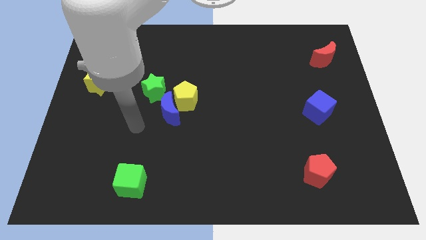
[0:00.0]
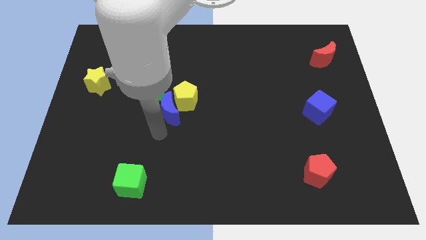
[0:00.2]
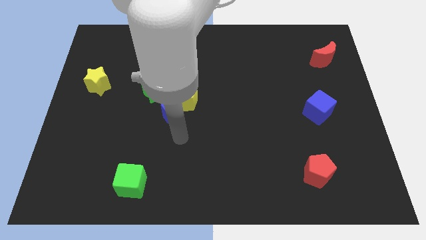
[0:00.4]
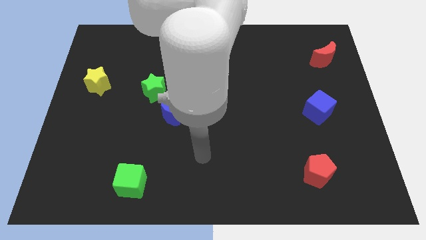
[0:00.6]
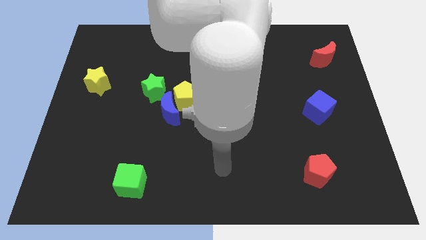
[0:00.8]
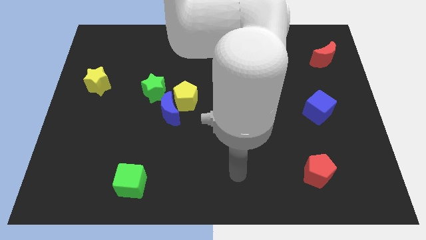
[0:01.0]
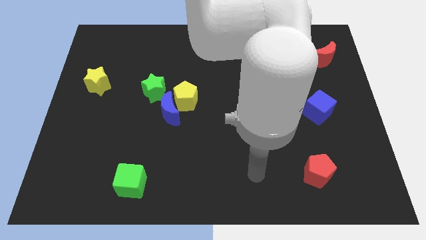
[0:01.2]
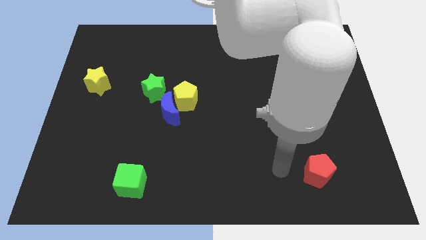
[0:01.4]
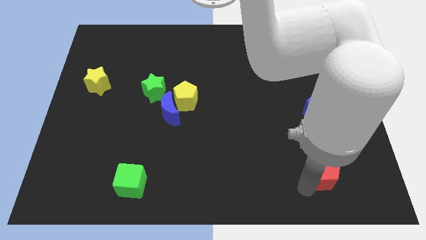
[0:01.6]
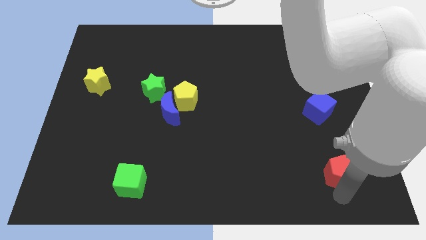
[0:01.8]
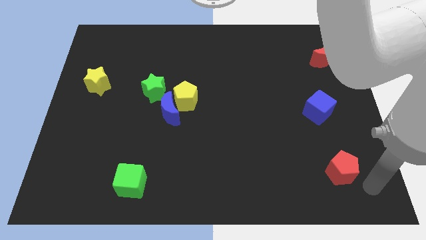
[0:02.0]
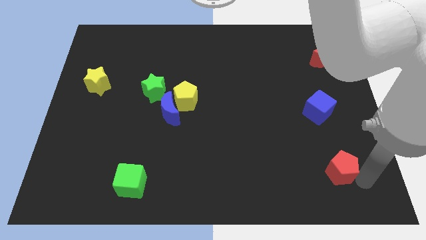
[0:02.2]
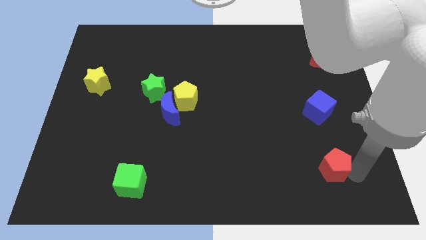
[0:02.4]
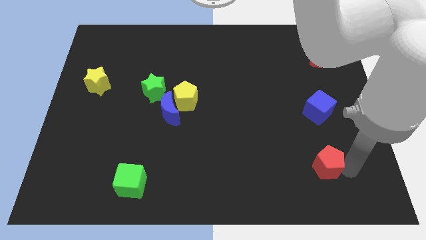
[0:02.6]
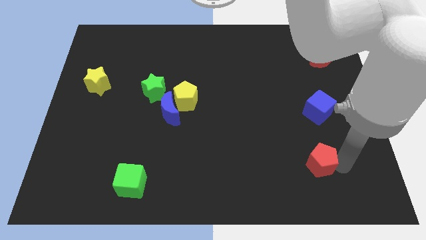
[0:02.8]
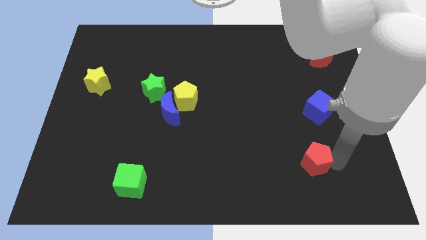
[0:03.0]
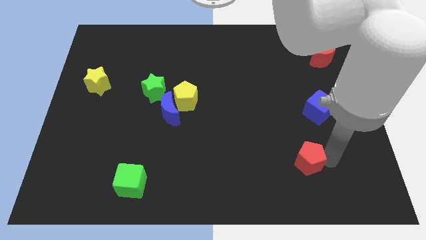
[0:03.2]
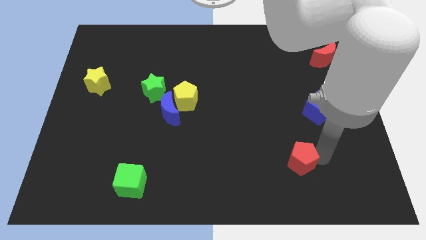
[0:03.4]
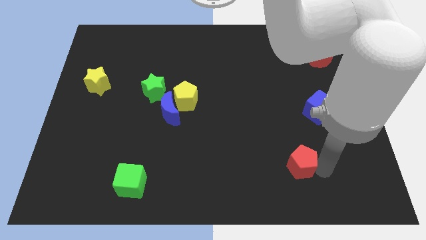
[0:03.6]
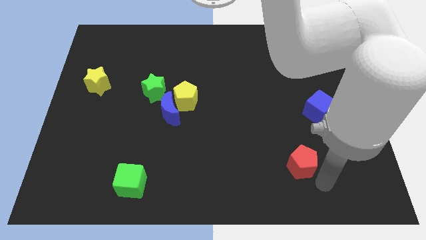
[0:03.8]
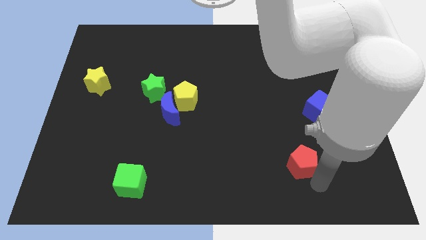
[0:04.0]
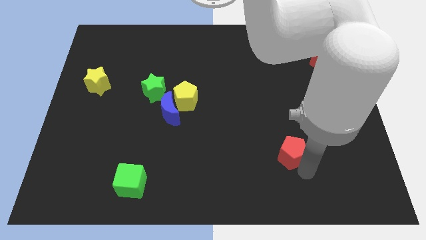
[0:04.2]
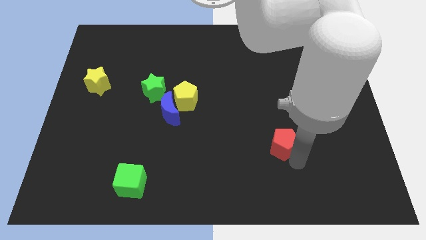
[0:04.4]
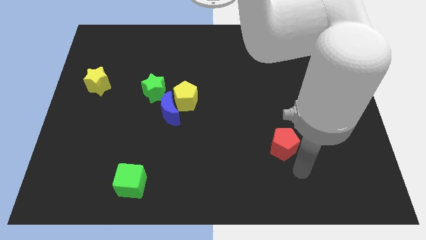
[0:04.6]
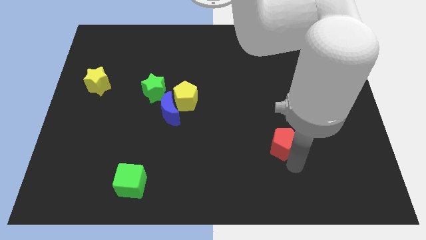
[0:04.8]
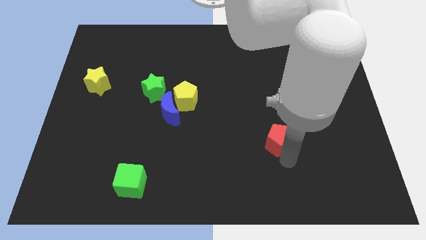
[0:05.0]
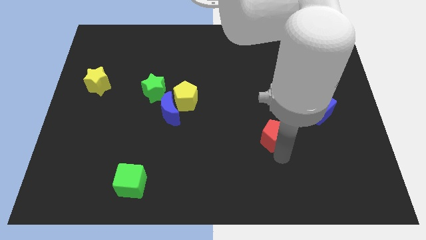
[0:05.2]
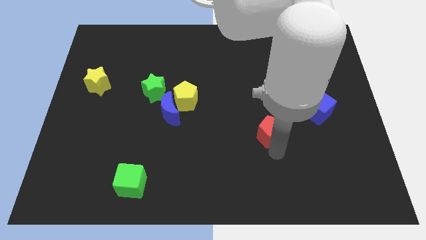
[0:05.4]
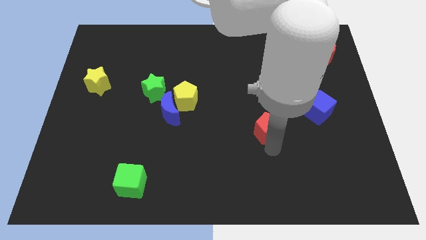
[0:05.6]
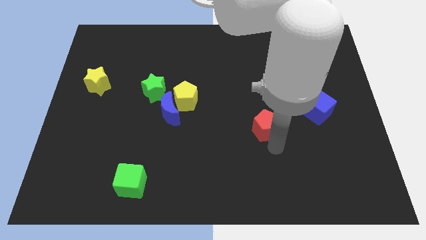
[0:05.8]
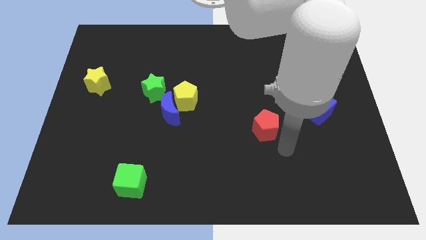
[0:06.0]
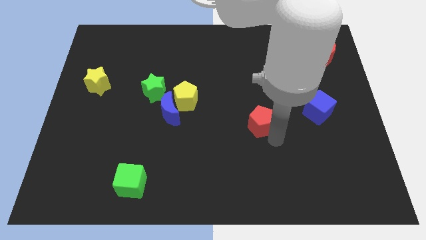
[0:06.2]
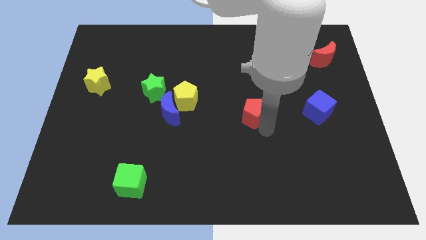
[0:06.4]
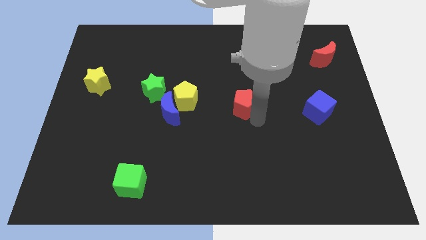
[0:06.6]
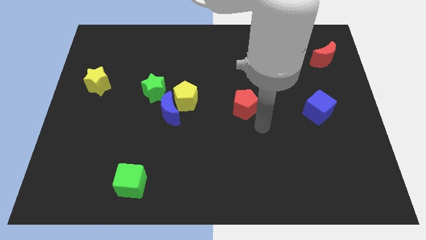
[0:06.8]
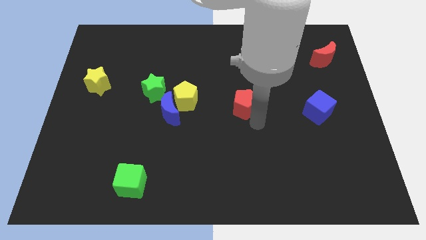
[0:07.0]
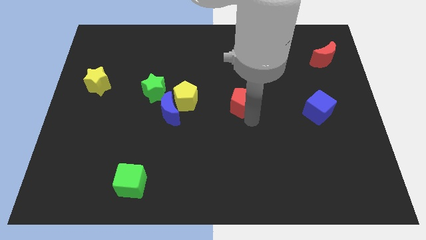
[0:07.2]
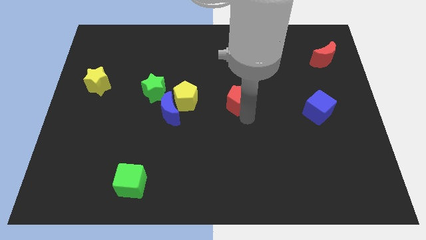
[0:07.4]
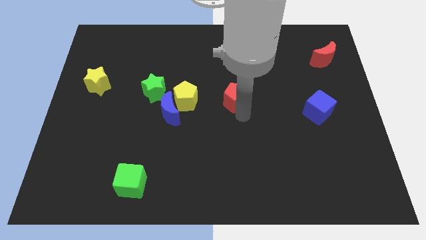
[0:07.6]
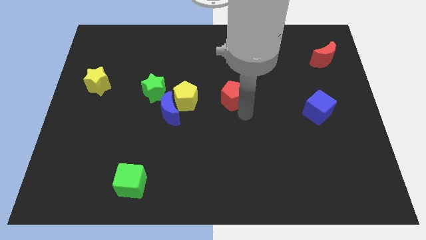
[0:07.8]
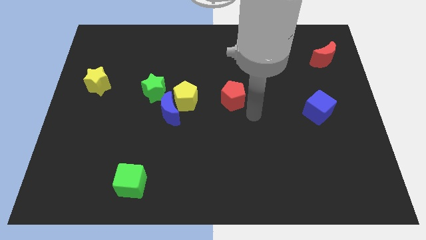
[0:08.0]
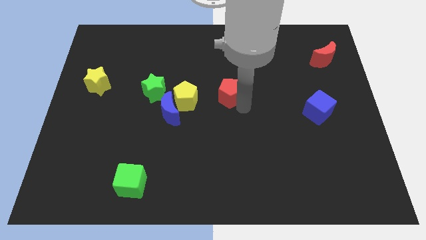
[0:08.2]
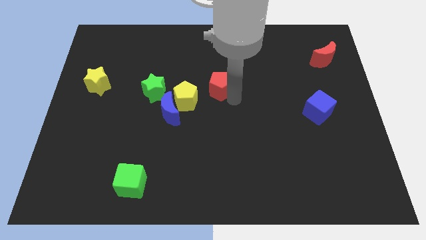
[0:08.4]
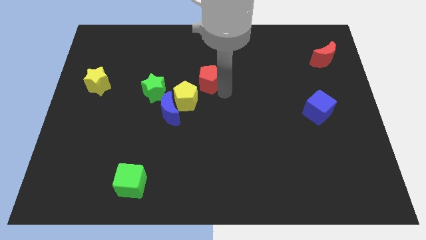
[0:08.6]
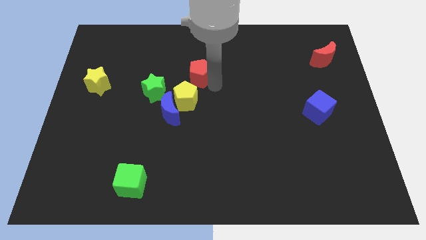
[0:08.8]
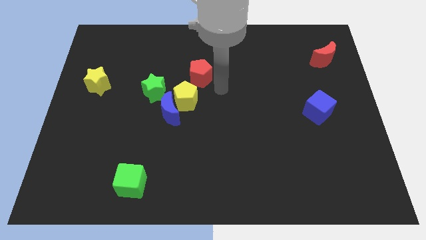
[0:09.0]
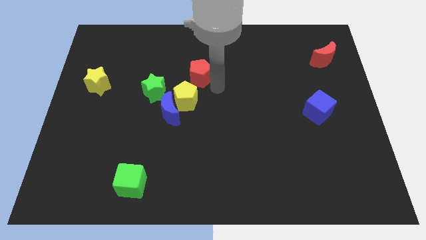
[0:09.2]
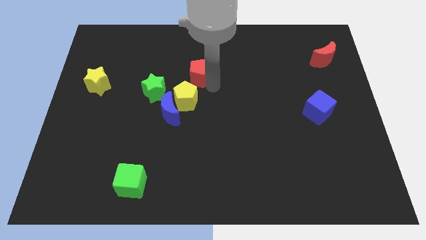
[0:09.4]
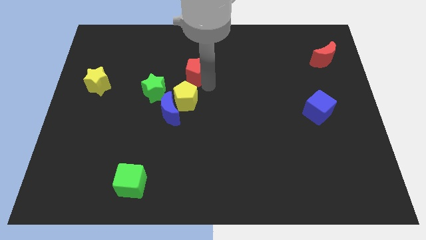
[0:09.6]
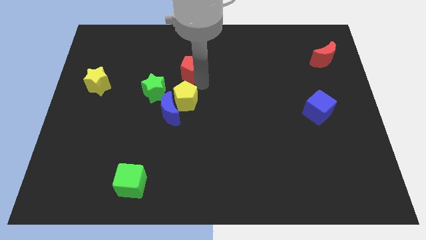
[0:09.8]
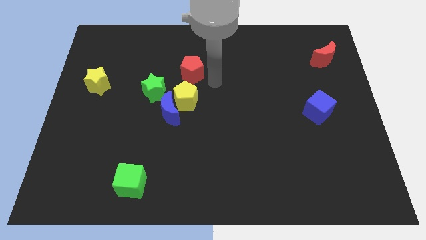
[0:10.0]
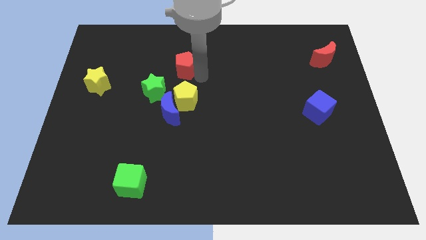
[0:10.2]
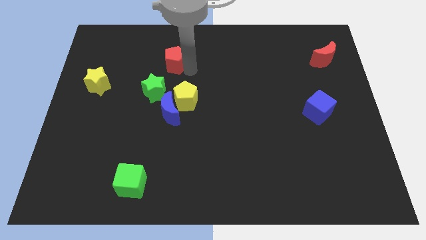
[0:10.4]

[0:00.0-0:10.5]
push the red pentagon to the top side of the green star

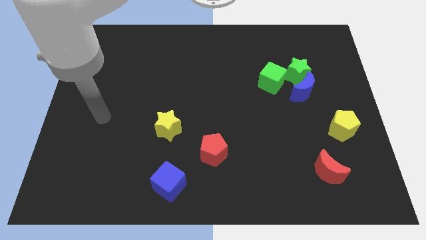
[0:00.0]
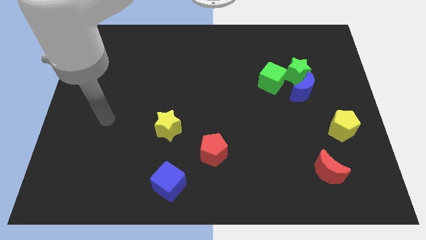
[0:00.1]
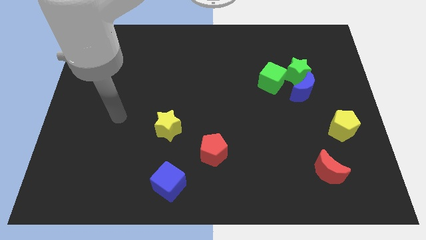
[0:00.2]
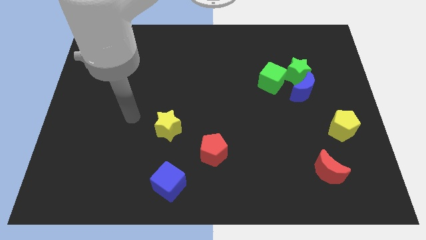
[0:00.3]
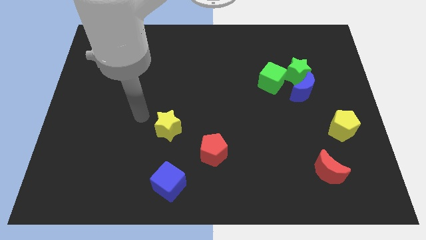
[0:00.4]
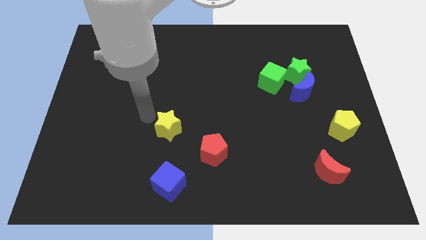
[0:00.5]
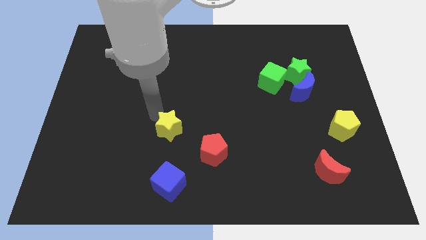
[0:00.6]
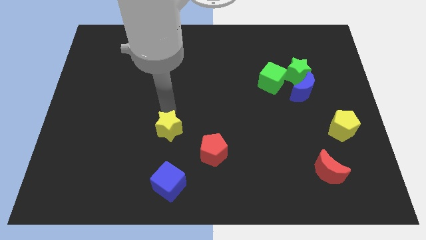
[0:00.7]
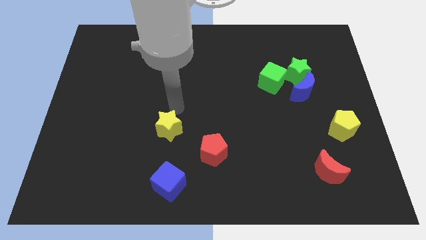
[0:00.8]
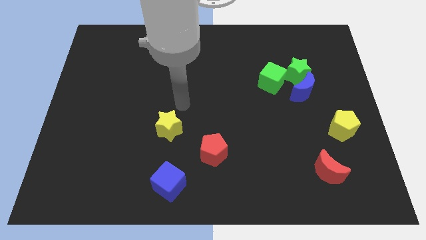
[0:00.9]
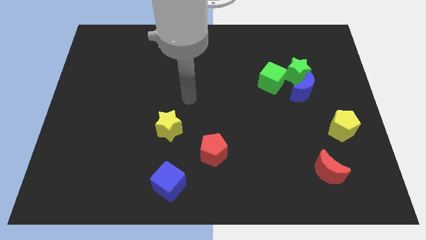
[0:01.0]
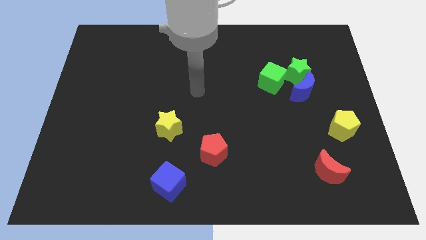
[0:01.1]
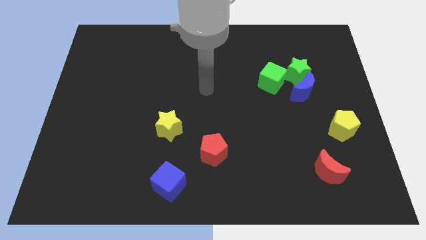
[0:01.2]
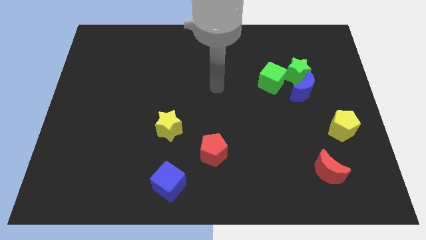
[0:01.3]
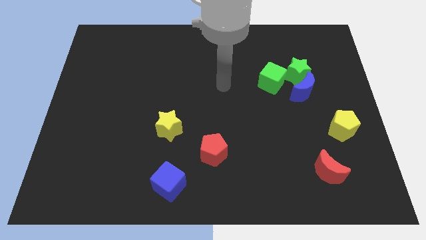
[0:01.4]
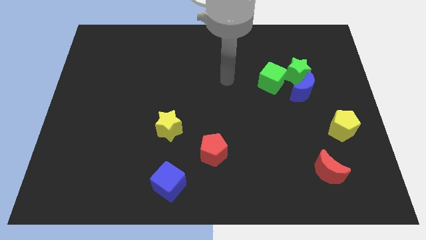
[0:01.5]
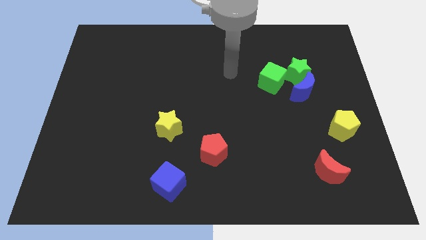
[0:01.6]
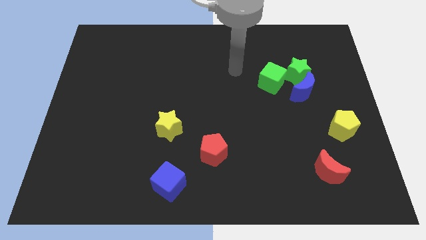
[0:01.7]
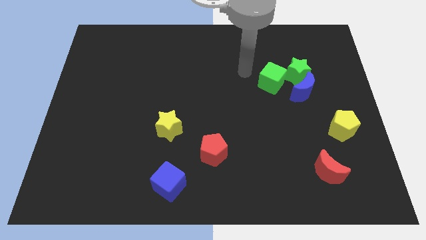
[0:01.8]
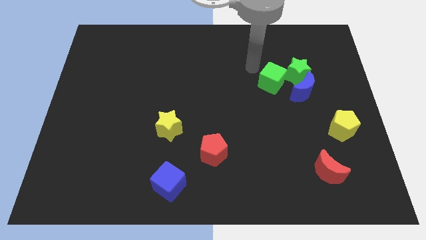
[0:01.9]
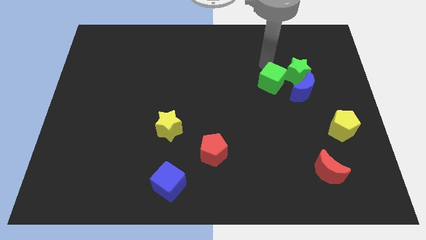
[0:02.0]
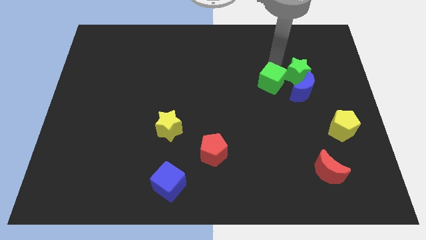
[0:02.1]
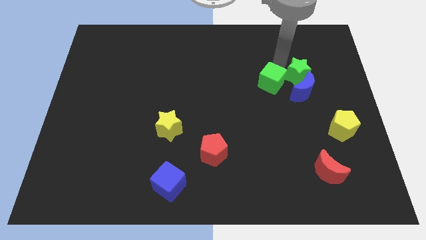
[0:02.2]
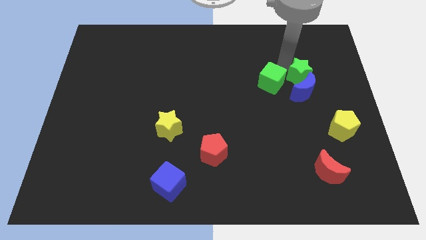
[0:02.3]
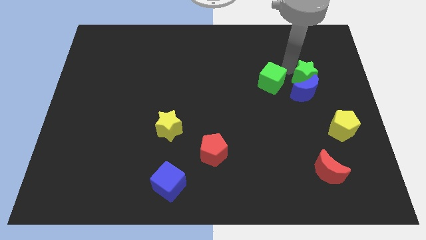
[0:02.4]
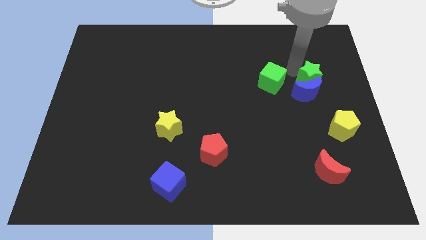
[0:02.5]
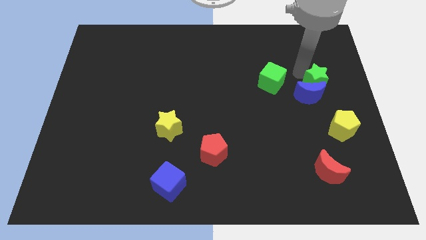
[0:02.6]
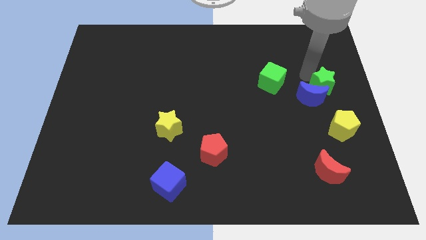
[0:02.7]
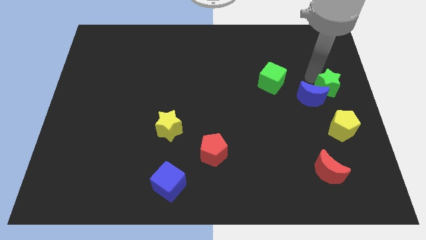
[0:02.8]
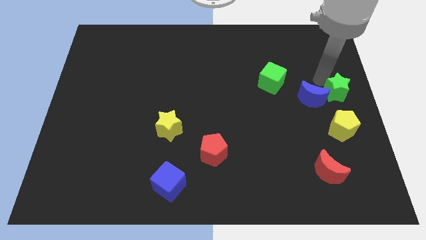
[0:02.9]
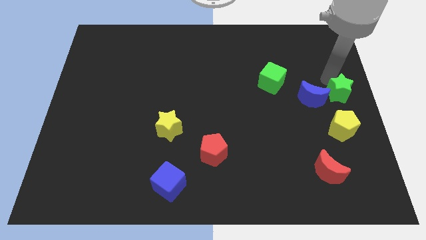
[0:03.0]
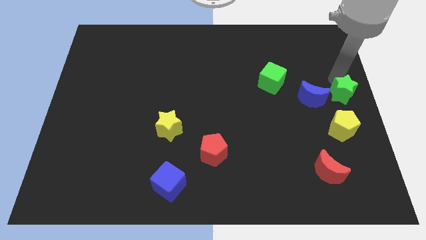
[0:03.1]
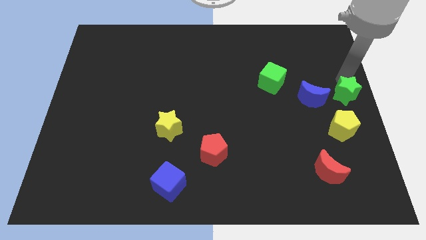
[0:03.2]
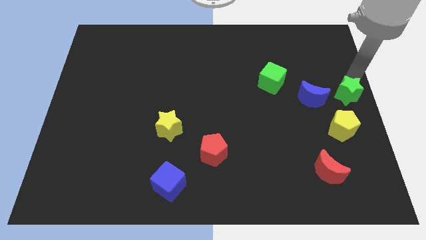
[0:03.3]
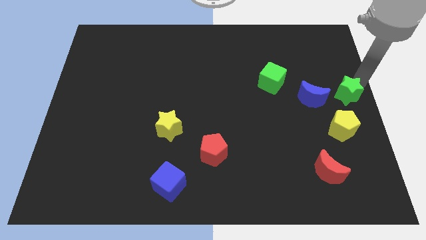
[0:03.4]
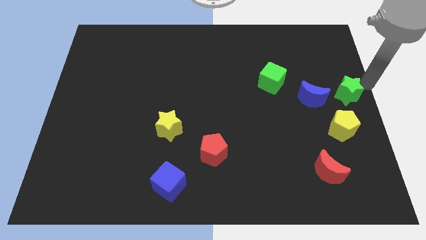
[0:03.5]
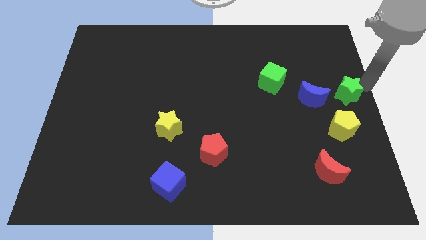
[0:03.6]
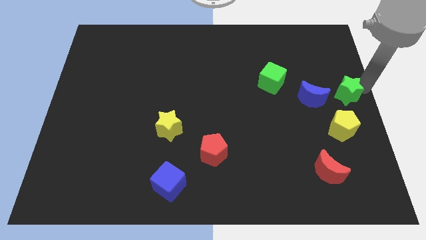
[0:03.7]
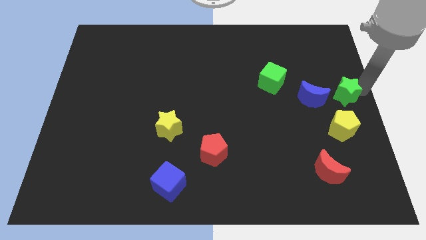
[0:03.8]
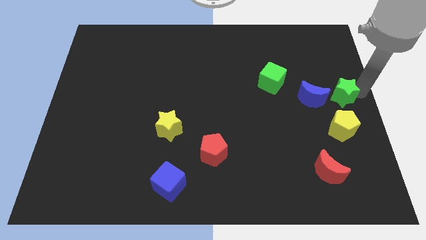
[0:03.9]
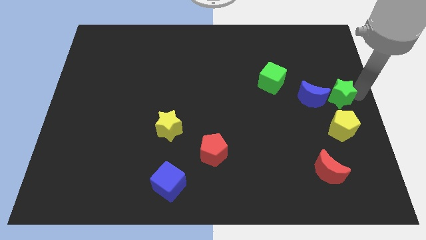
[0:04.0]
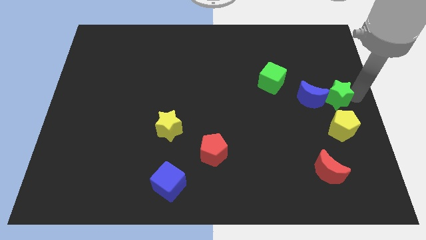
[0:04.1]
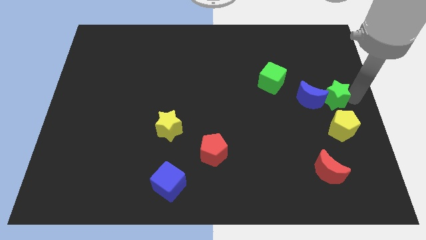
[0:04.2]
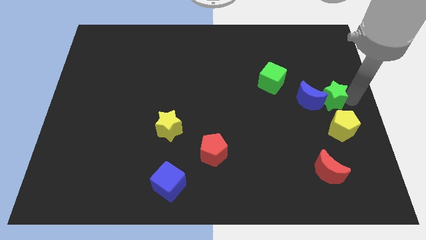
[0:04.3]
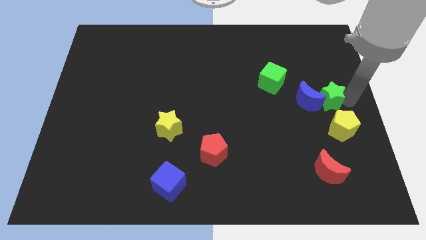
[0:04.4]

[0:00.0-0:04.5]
push the green star diagonally up and to the left of the yellow pentagon
